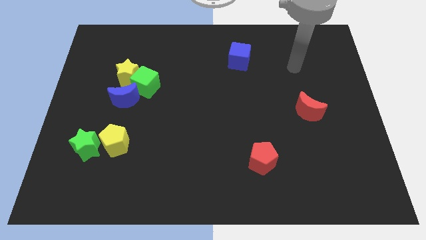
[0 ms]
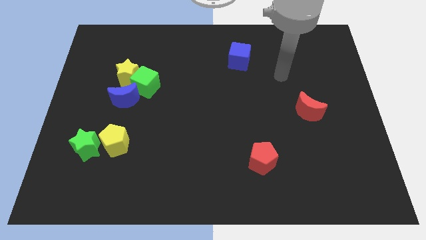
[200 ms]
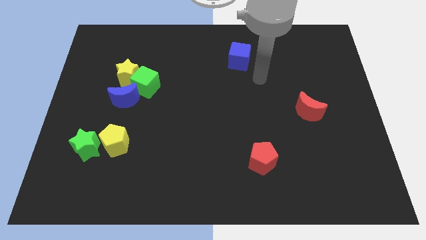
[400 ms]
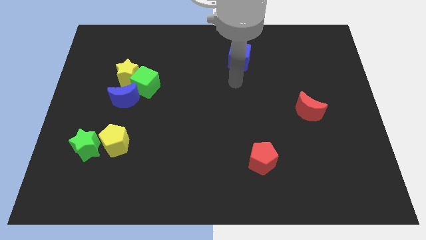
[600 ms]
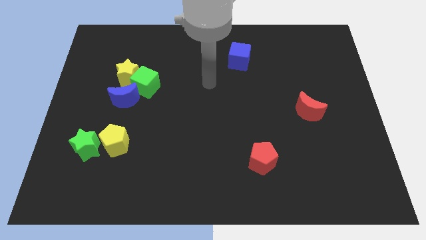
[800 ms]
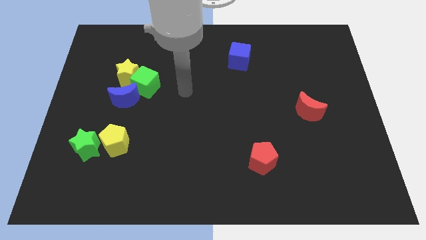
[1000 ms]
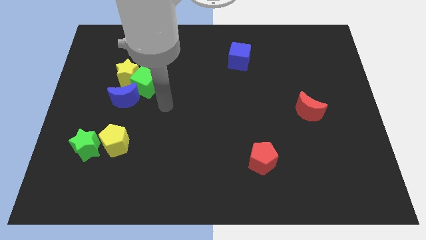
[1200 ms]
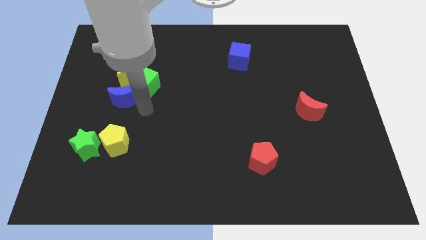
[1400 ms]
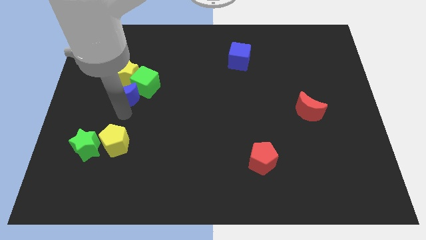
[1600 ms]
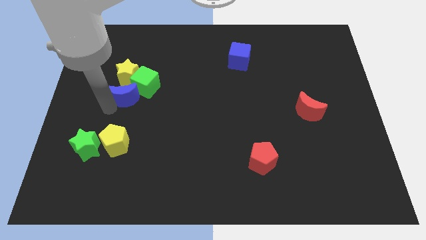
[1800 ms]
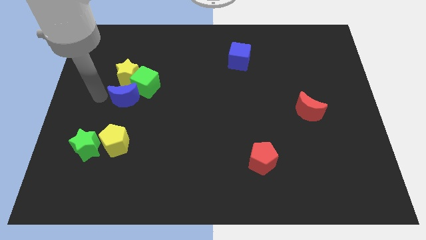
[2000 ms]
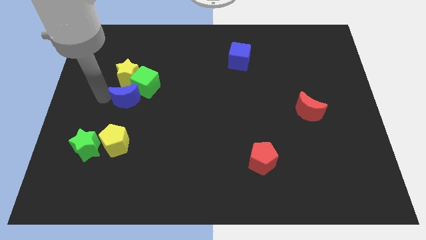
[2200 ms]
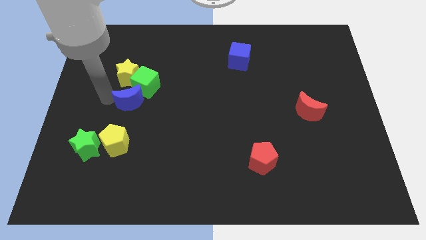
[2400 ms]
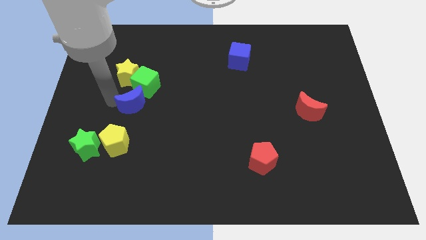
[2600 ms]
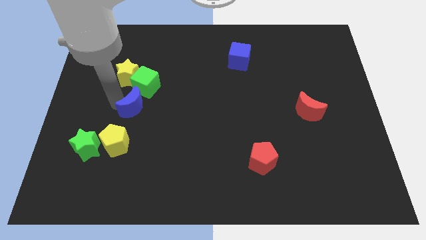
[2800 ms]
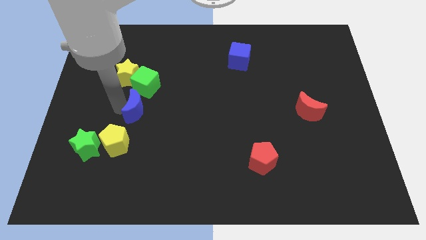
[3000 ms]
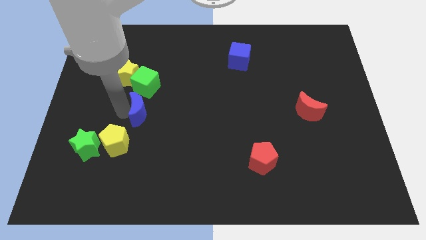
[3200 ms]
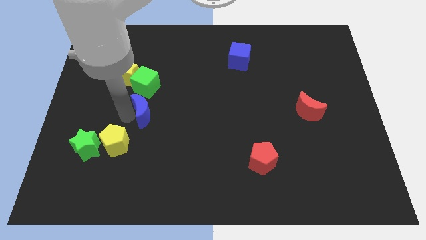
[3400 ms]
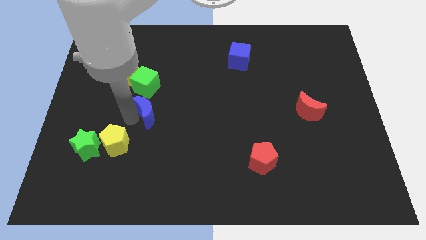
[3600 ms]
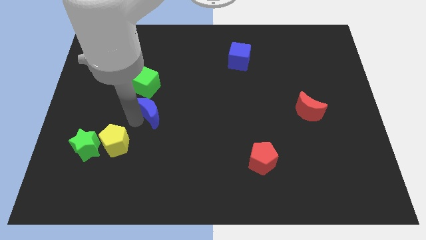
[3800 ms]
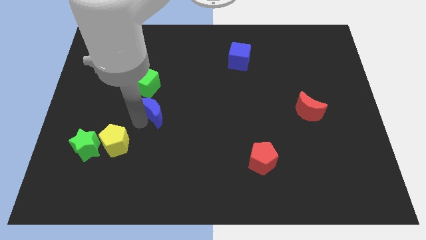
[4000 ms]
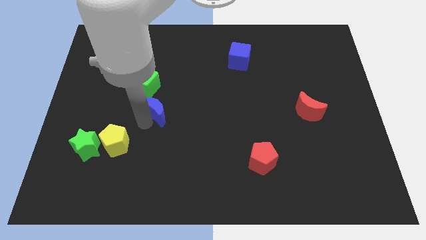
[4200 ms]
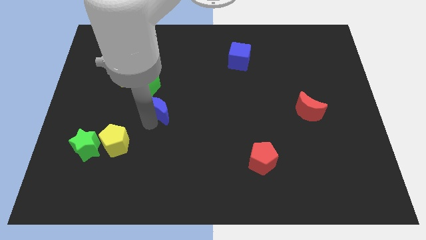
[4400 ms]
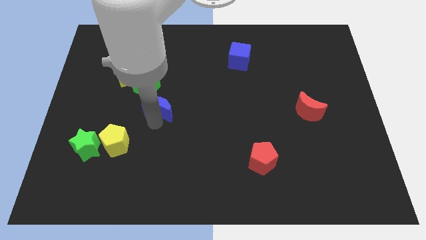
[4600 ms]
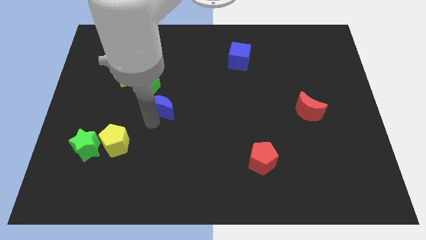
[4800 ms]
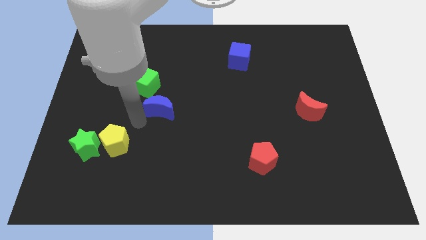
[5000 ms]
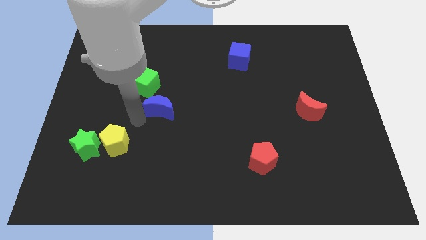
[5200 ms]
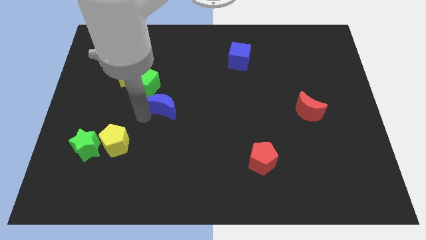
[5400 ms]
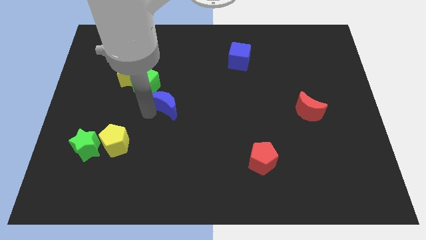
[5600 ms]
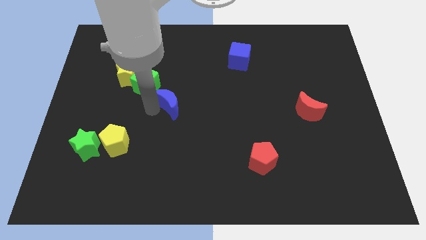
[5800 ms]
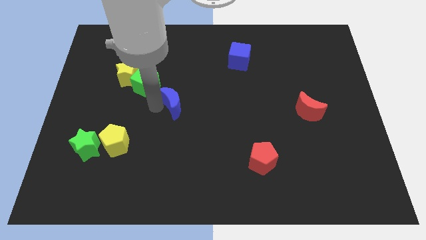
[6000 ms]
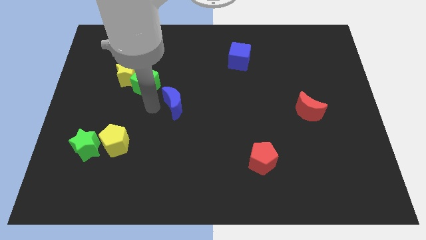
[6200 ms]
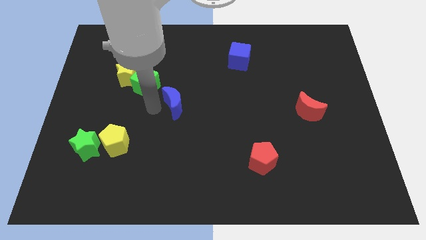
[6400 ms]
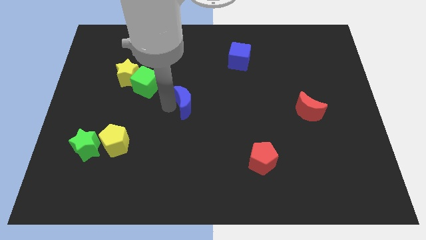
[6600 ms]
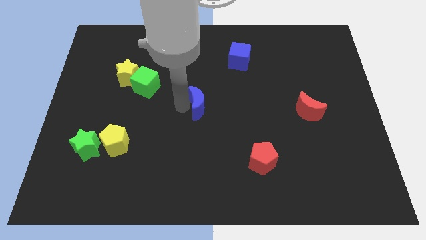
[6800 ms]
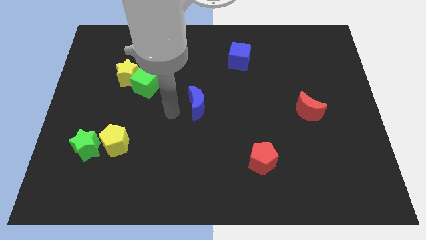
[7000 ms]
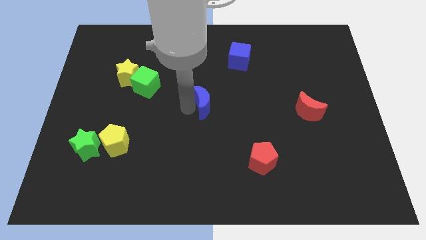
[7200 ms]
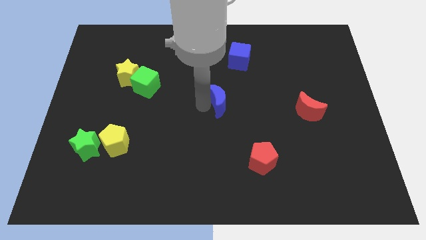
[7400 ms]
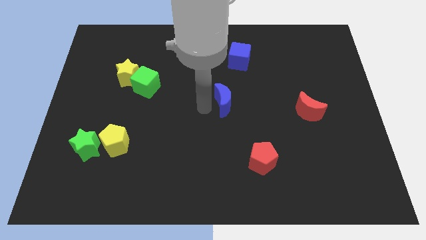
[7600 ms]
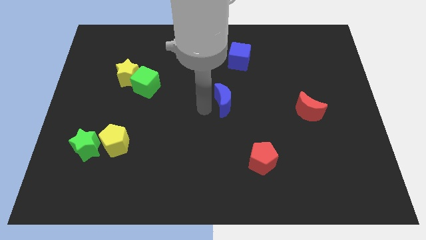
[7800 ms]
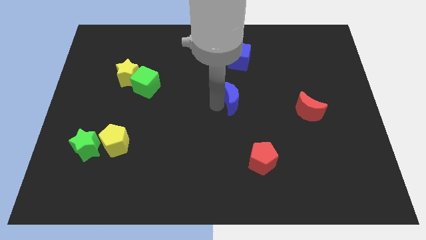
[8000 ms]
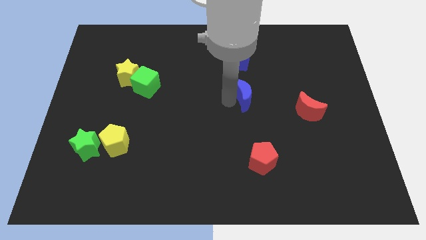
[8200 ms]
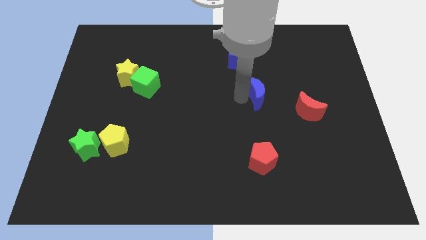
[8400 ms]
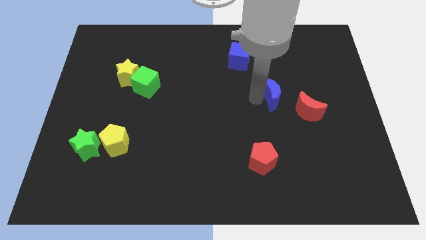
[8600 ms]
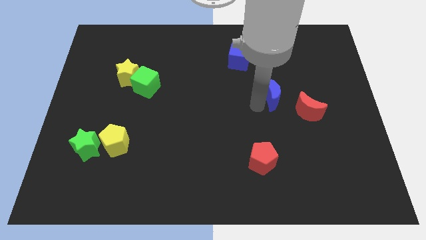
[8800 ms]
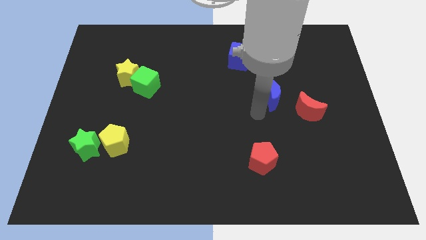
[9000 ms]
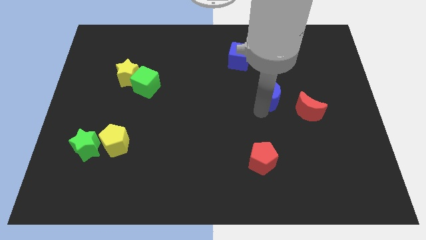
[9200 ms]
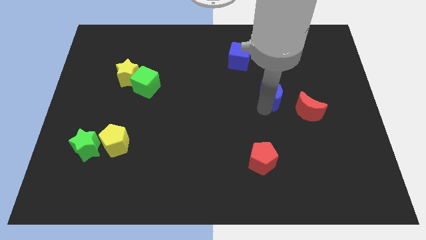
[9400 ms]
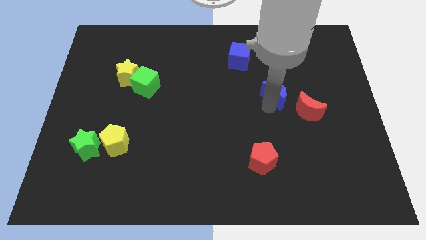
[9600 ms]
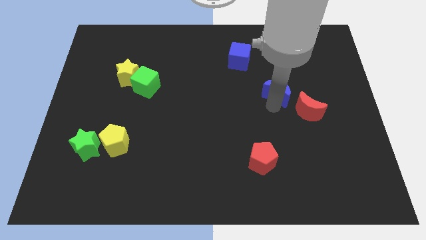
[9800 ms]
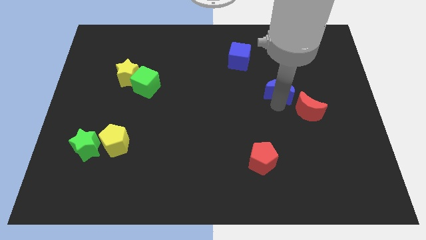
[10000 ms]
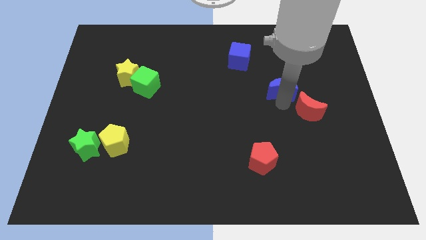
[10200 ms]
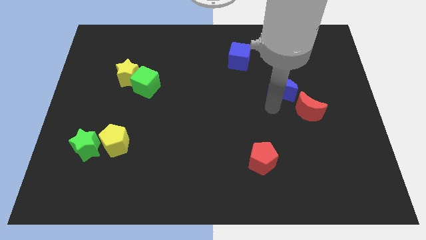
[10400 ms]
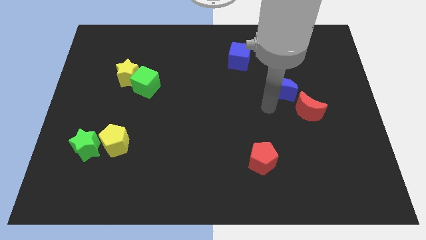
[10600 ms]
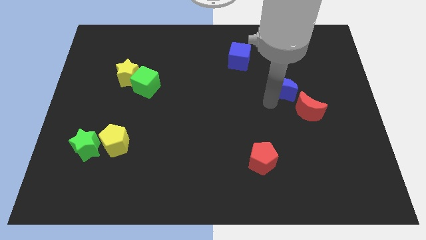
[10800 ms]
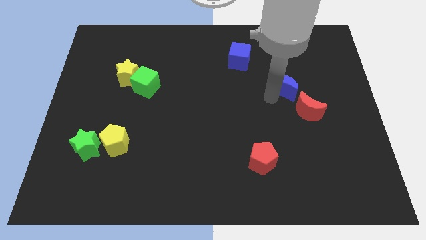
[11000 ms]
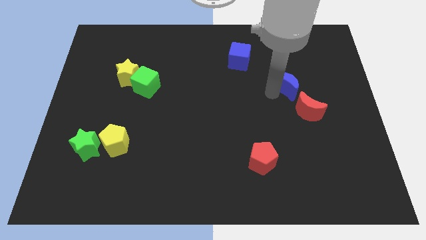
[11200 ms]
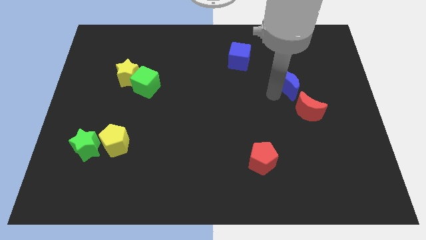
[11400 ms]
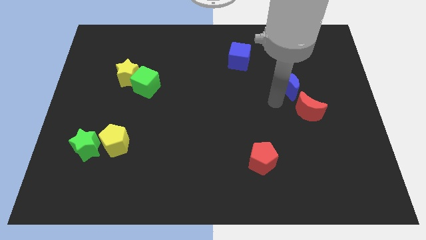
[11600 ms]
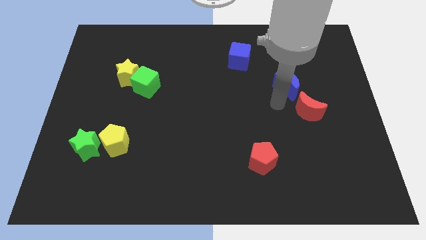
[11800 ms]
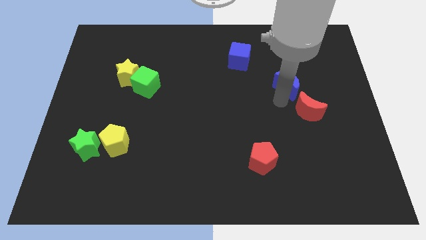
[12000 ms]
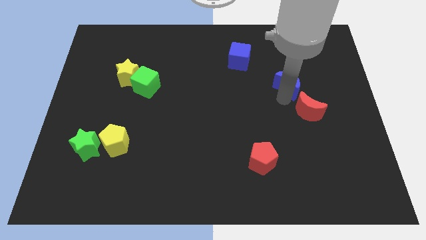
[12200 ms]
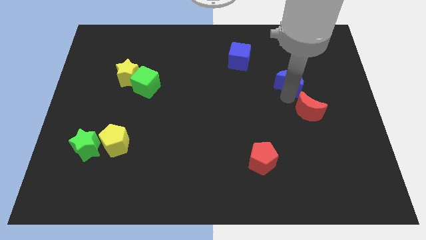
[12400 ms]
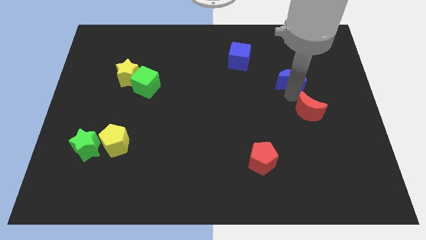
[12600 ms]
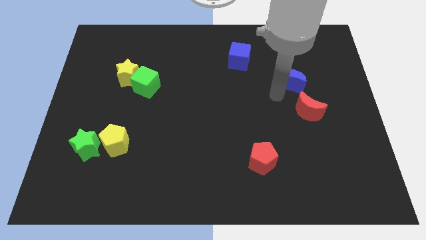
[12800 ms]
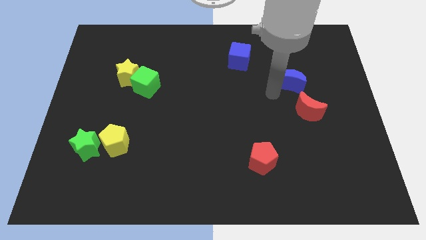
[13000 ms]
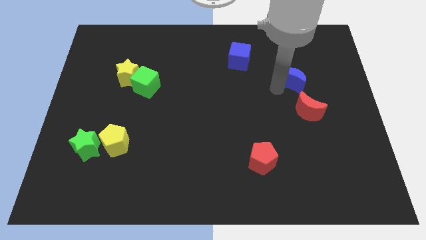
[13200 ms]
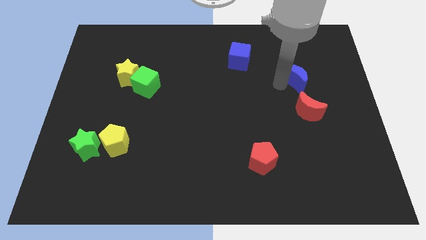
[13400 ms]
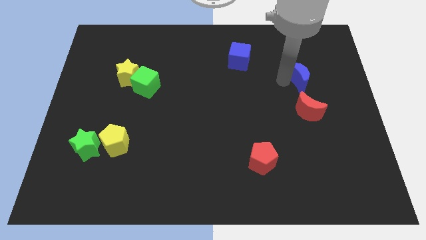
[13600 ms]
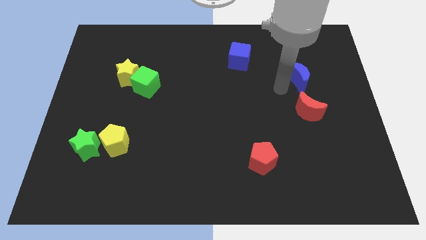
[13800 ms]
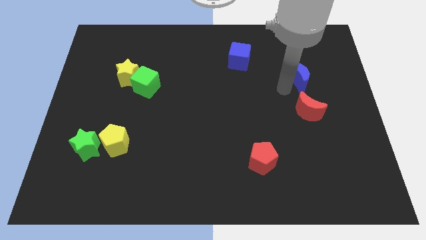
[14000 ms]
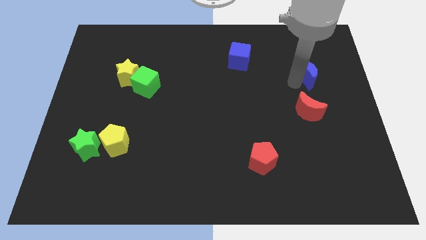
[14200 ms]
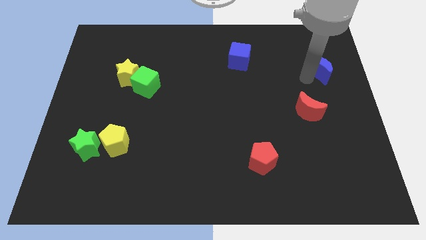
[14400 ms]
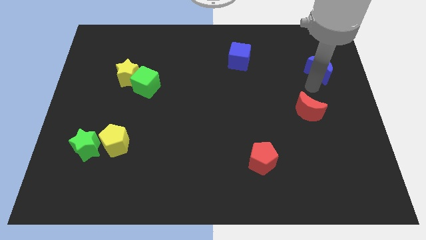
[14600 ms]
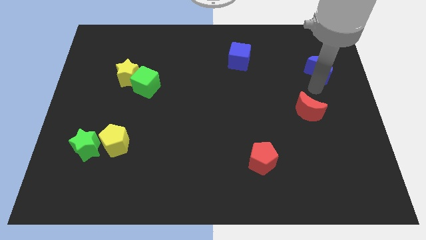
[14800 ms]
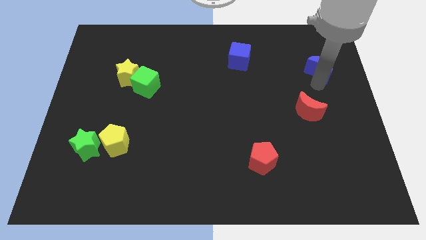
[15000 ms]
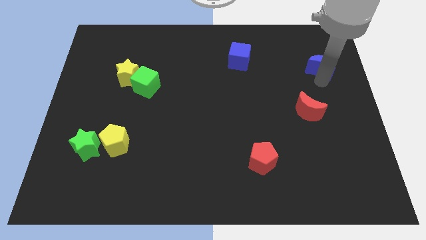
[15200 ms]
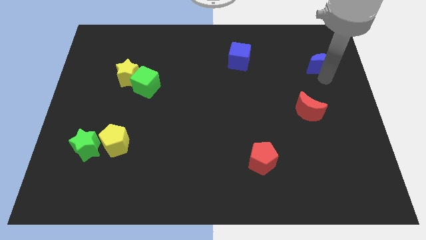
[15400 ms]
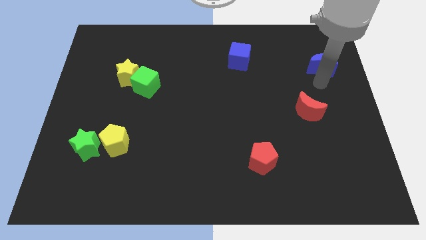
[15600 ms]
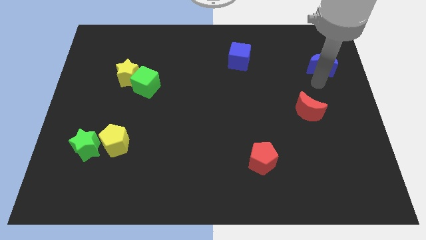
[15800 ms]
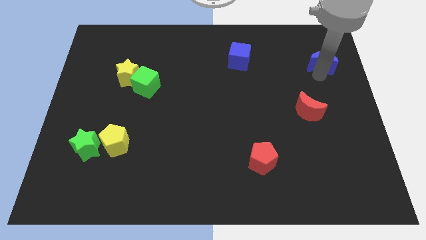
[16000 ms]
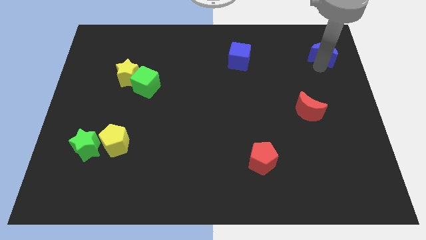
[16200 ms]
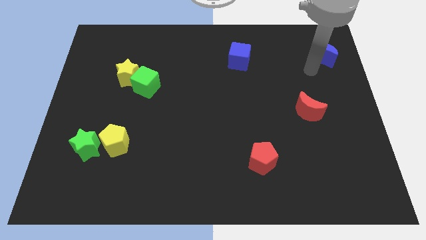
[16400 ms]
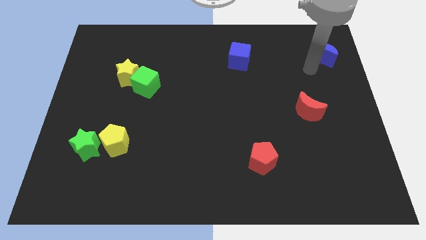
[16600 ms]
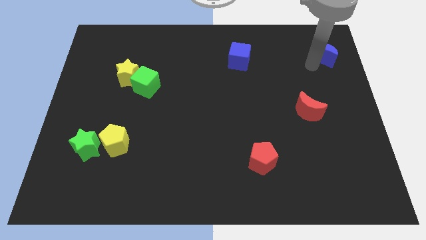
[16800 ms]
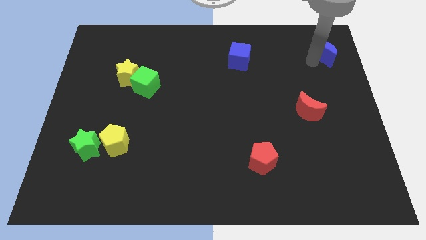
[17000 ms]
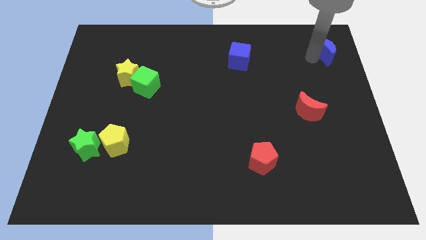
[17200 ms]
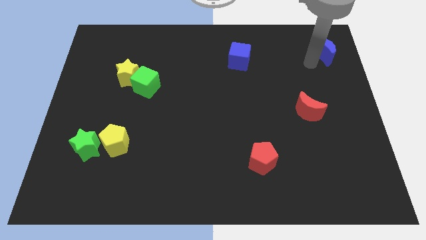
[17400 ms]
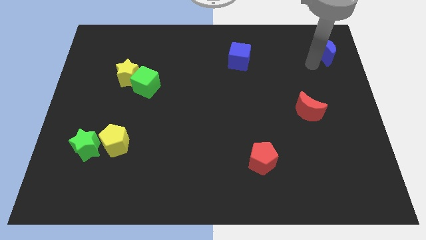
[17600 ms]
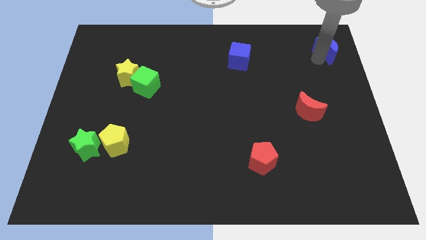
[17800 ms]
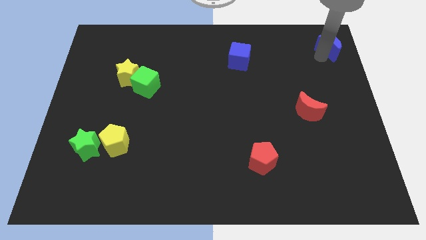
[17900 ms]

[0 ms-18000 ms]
move the blue moon to the top right corner
